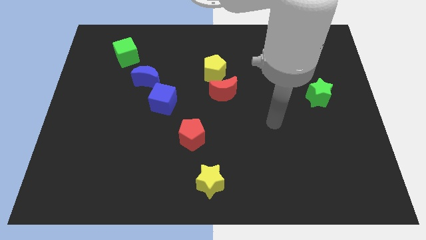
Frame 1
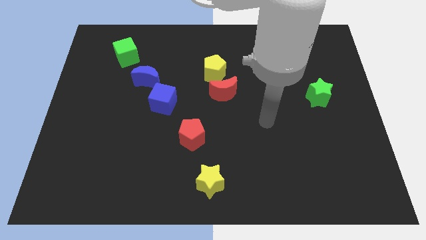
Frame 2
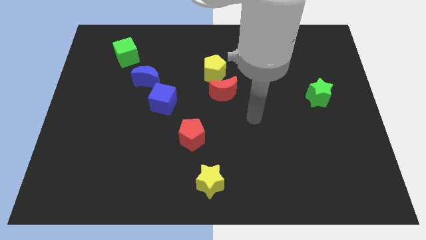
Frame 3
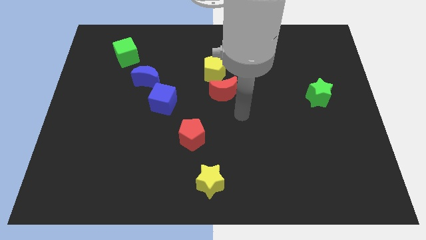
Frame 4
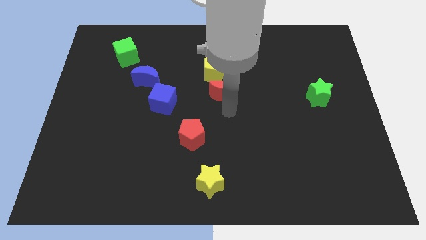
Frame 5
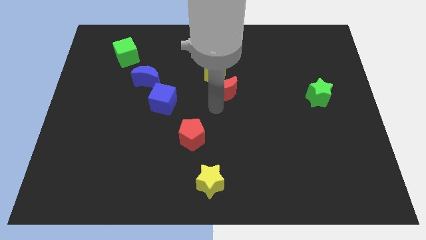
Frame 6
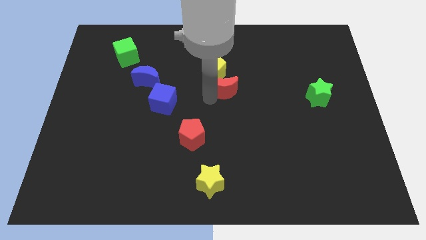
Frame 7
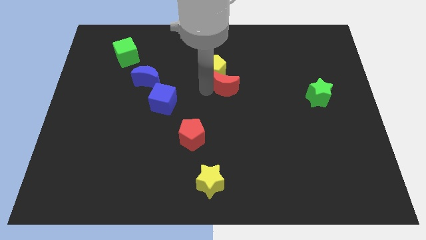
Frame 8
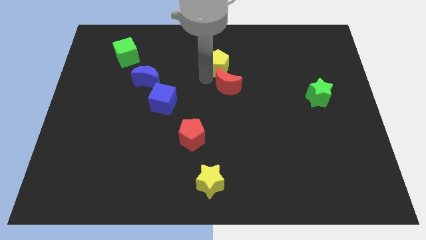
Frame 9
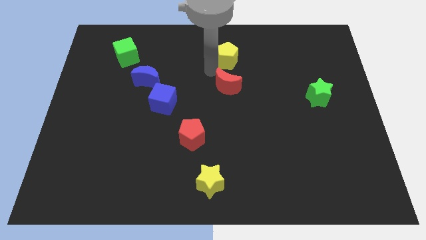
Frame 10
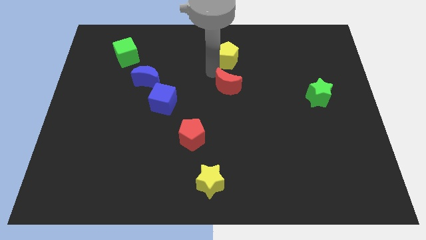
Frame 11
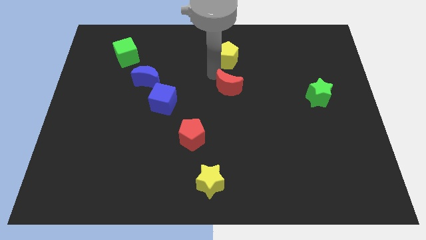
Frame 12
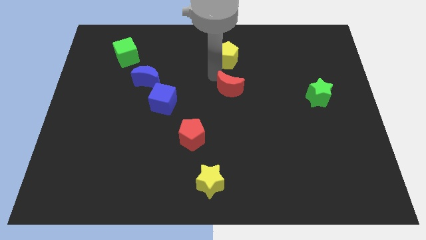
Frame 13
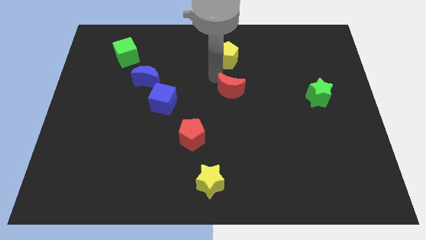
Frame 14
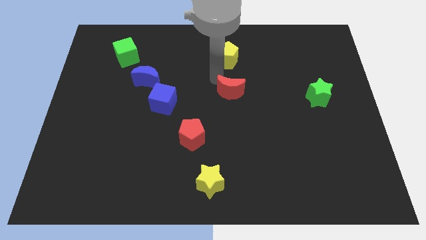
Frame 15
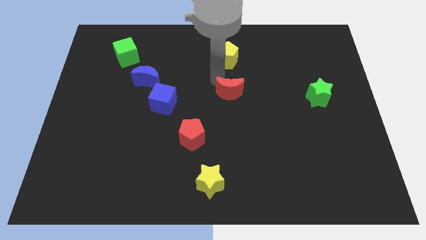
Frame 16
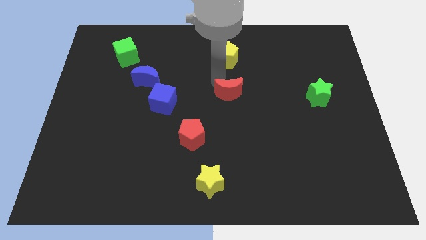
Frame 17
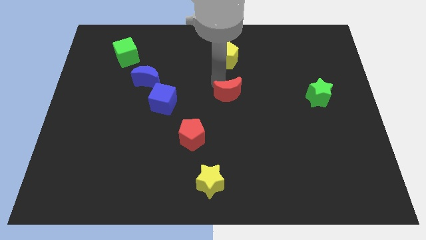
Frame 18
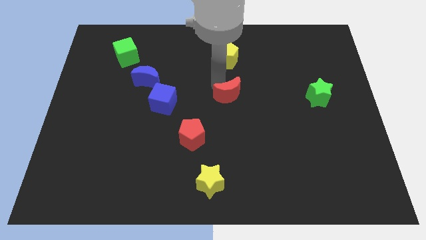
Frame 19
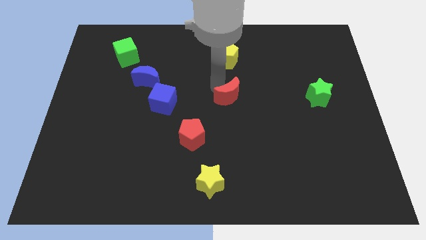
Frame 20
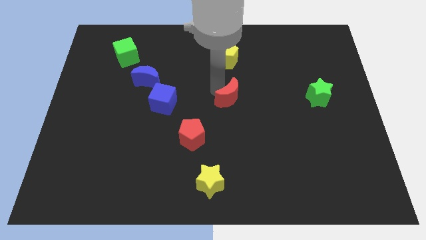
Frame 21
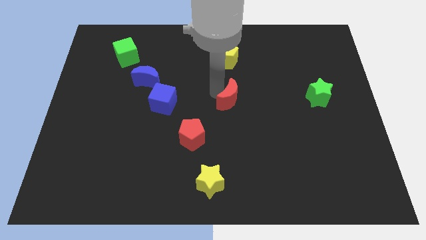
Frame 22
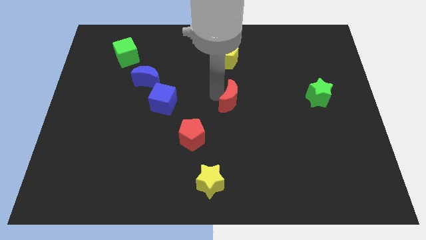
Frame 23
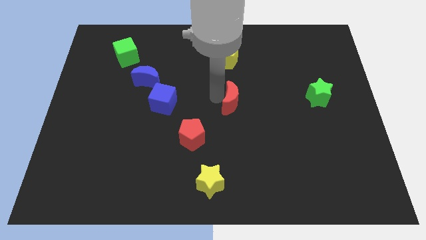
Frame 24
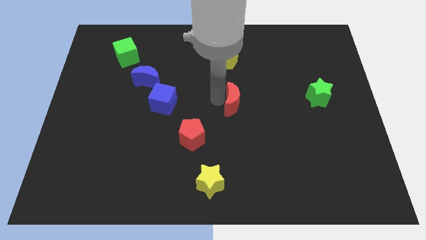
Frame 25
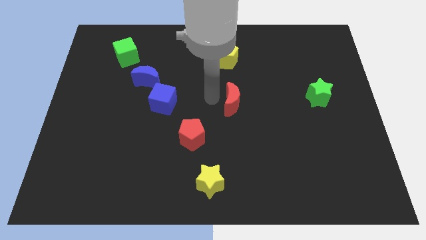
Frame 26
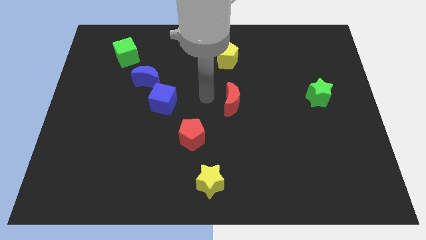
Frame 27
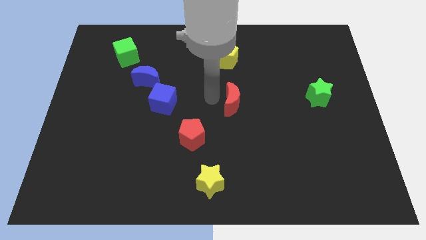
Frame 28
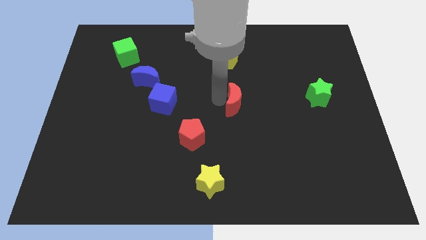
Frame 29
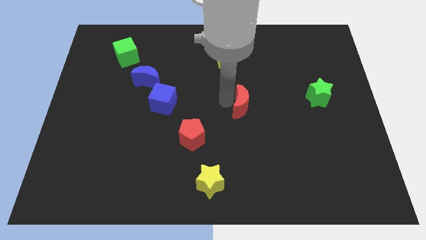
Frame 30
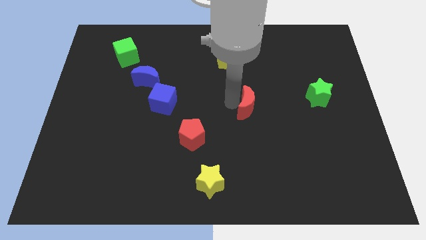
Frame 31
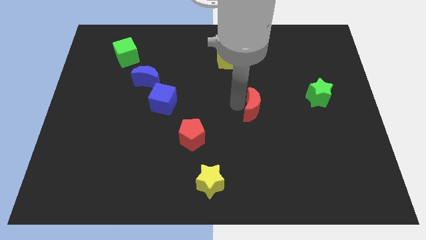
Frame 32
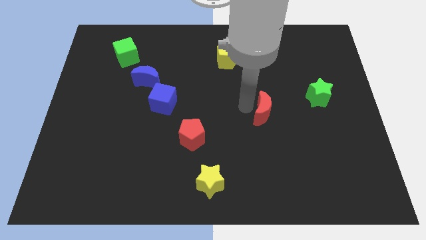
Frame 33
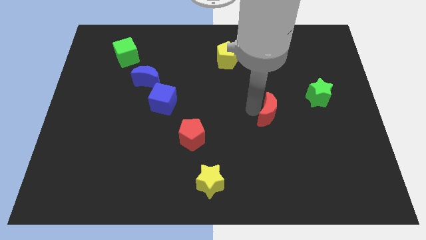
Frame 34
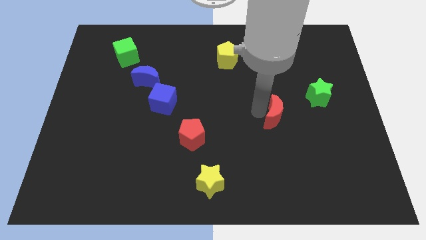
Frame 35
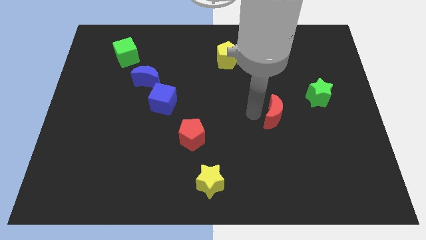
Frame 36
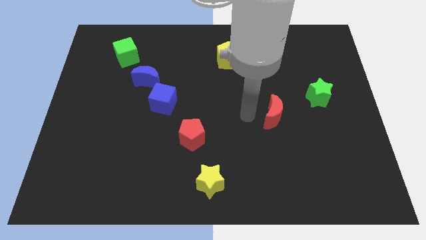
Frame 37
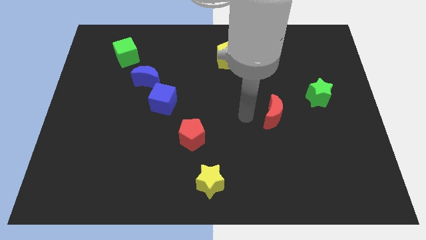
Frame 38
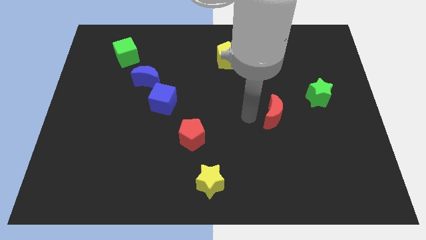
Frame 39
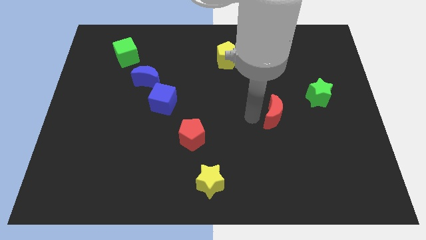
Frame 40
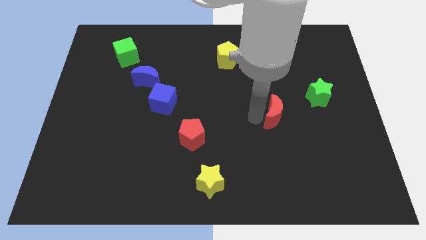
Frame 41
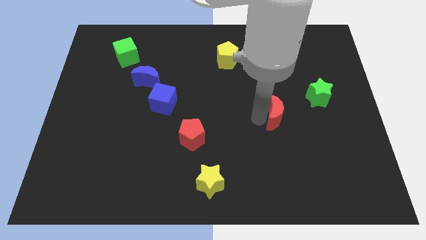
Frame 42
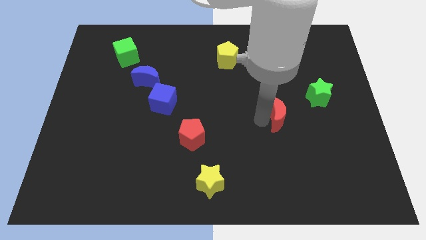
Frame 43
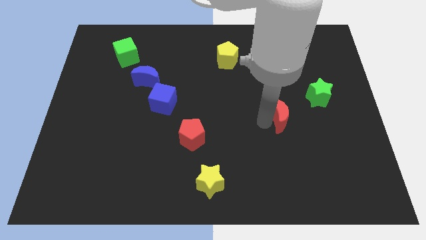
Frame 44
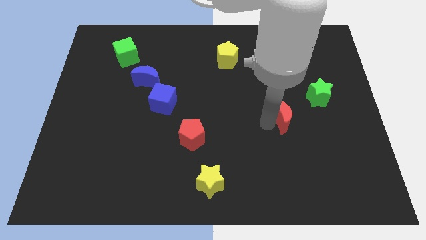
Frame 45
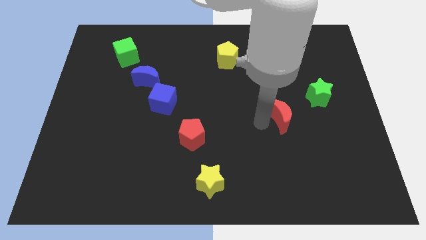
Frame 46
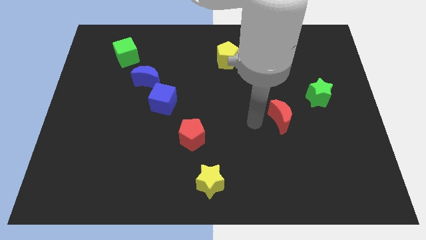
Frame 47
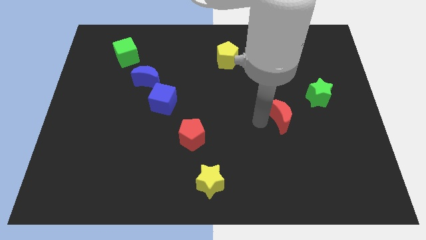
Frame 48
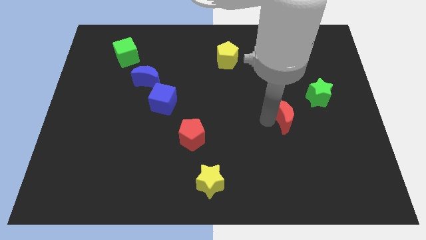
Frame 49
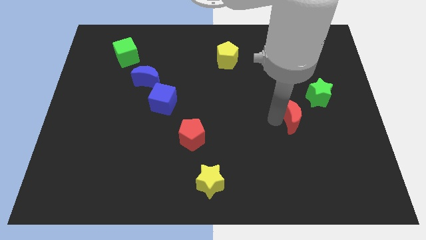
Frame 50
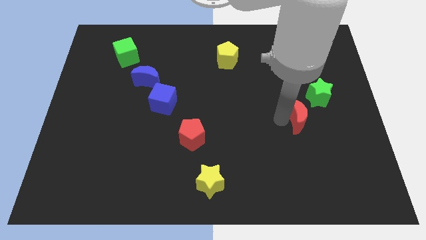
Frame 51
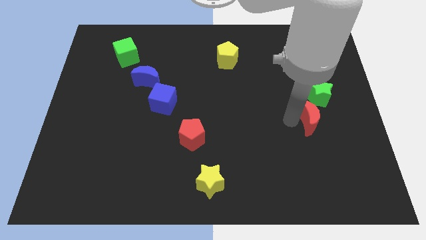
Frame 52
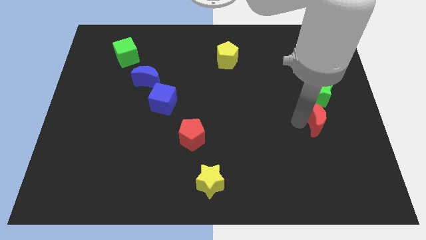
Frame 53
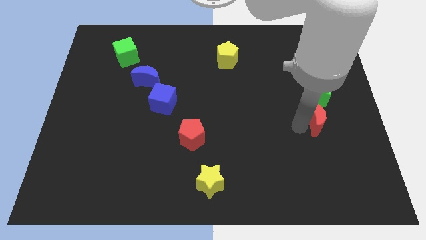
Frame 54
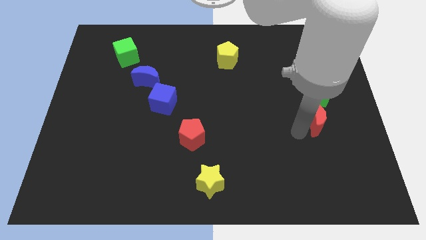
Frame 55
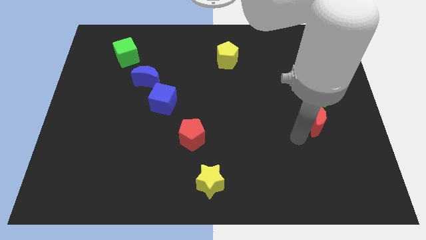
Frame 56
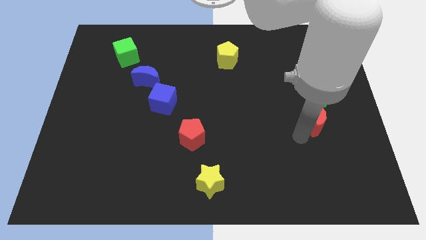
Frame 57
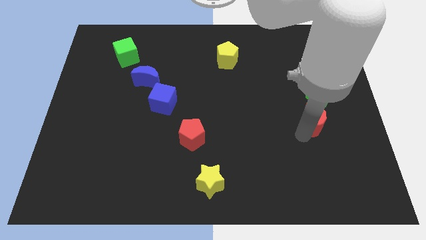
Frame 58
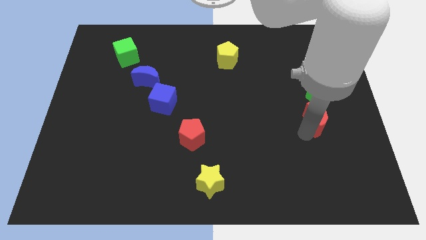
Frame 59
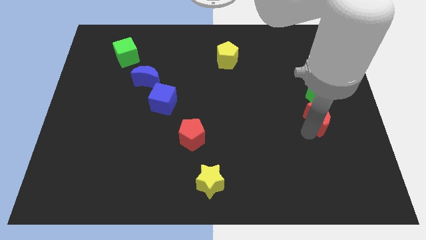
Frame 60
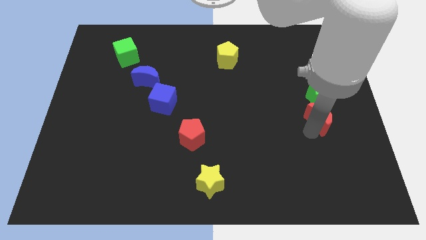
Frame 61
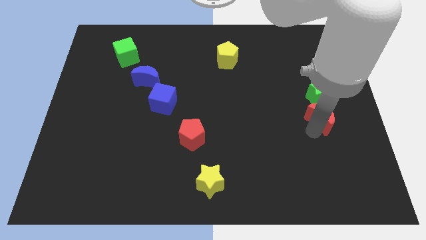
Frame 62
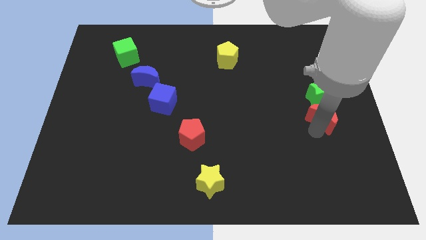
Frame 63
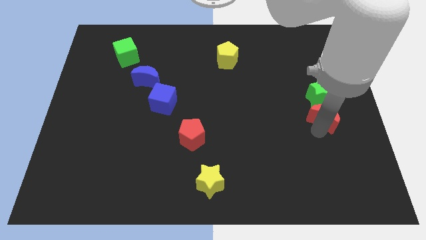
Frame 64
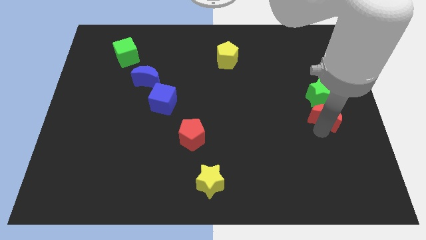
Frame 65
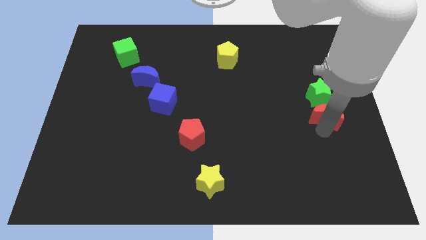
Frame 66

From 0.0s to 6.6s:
push the red moon to the center right
